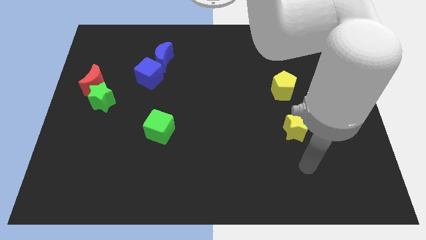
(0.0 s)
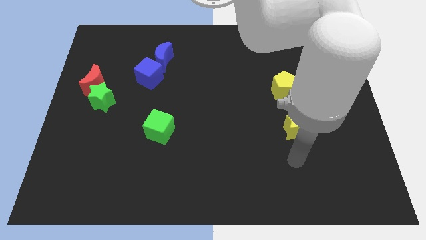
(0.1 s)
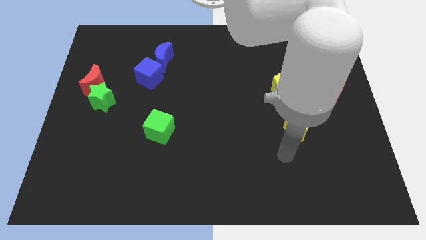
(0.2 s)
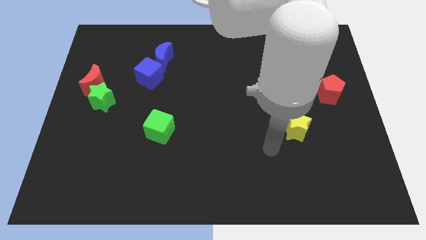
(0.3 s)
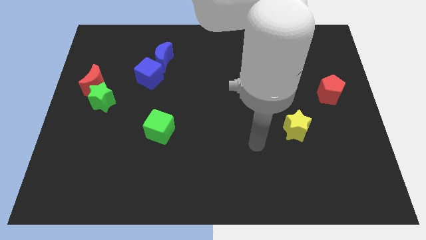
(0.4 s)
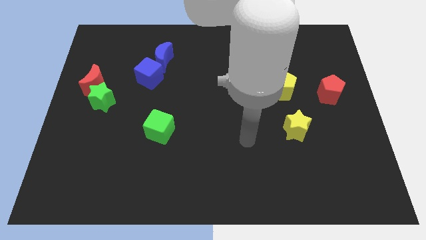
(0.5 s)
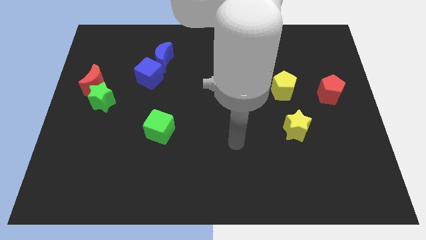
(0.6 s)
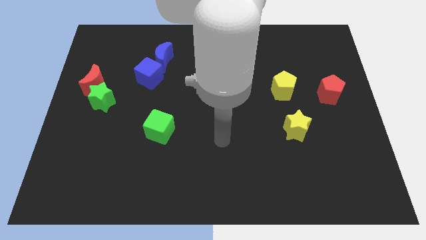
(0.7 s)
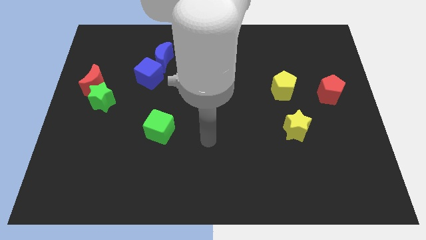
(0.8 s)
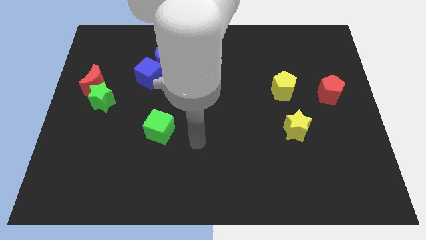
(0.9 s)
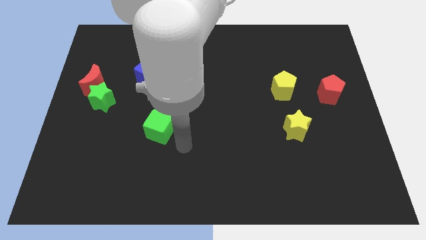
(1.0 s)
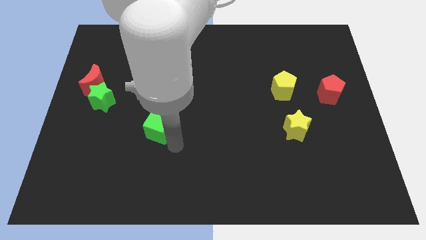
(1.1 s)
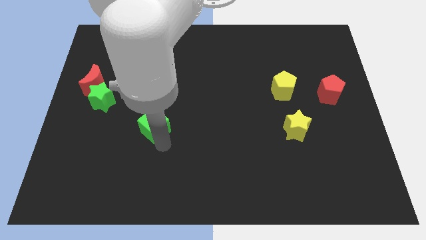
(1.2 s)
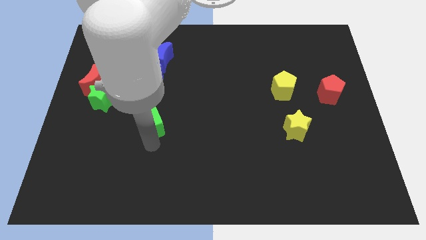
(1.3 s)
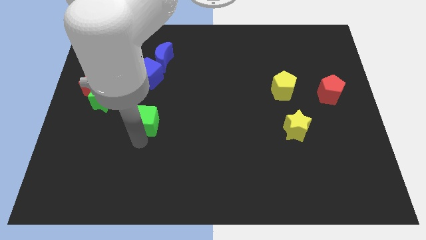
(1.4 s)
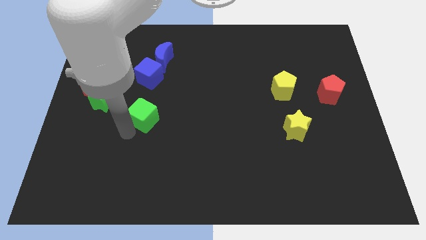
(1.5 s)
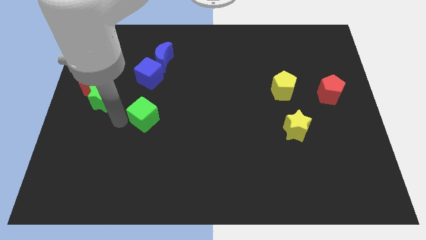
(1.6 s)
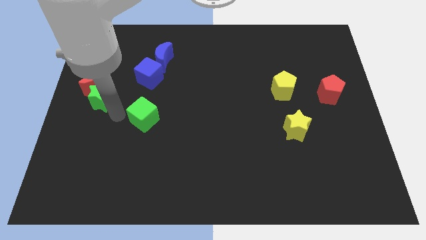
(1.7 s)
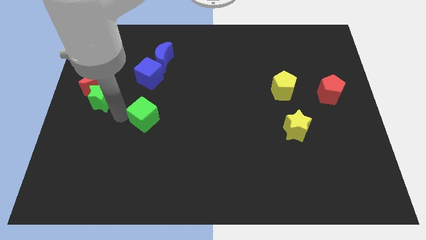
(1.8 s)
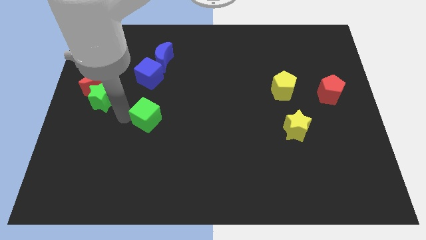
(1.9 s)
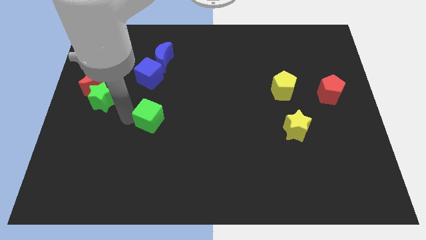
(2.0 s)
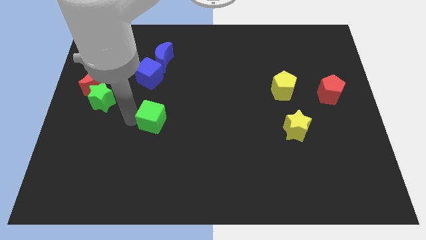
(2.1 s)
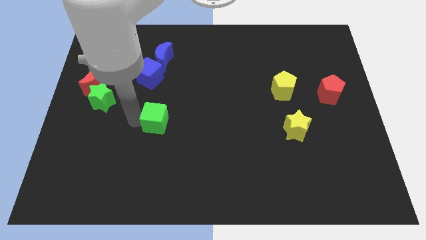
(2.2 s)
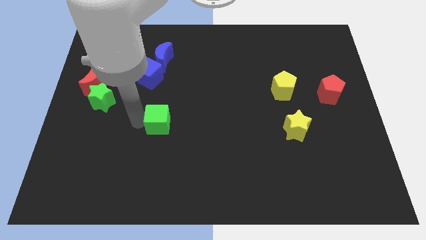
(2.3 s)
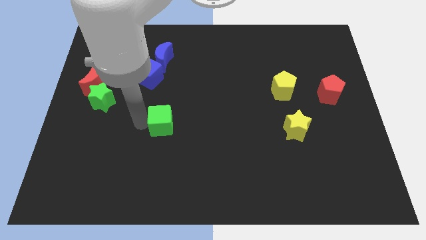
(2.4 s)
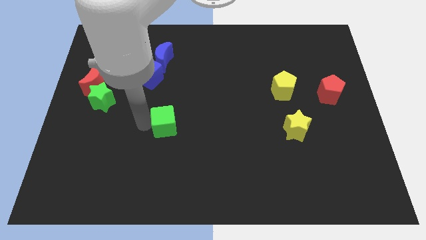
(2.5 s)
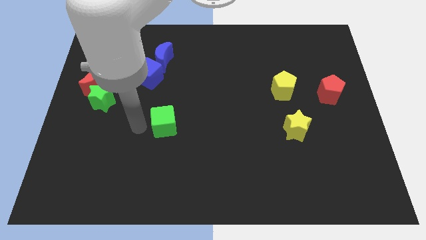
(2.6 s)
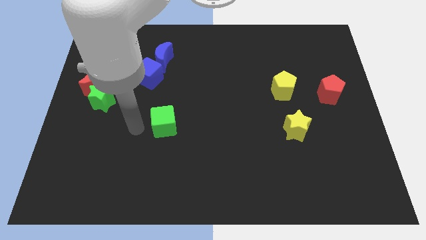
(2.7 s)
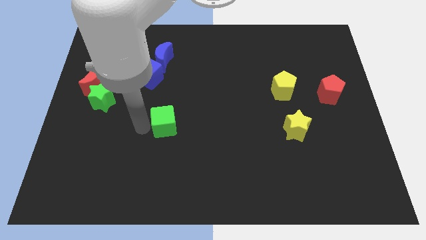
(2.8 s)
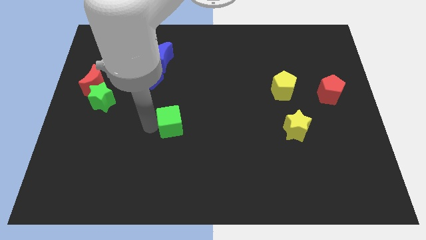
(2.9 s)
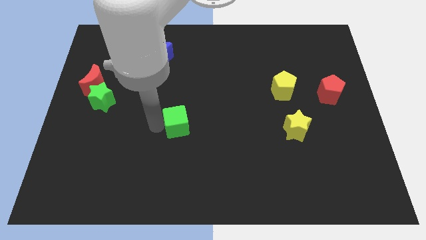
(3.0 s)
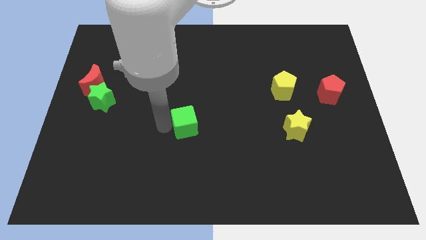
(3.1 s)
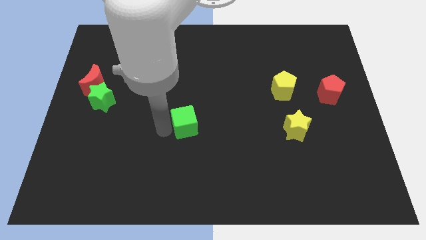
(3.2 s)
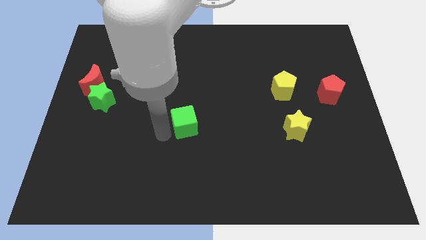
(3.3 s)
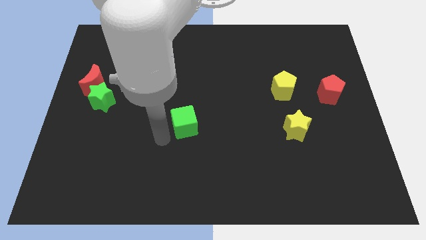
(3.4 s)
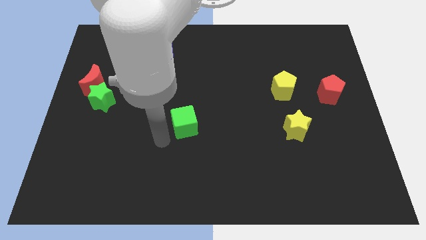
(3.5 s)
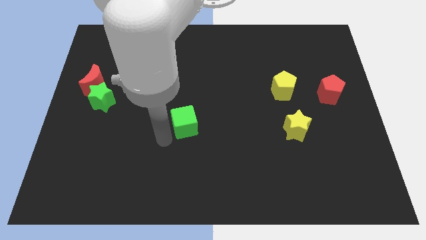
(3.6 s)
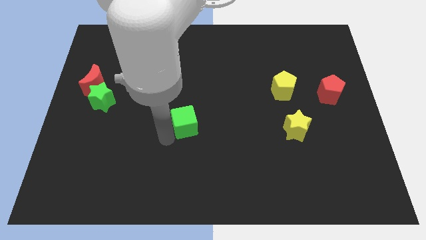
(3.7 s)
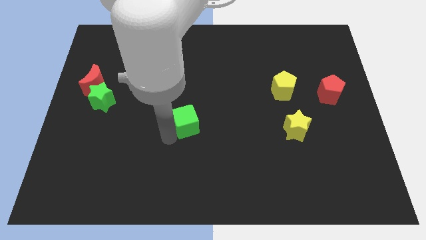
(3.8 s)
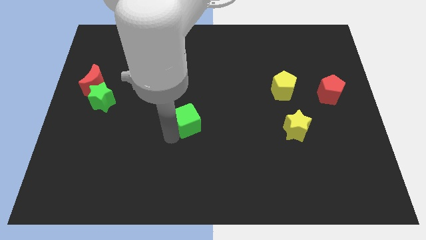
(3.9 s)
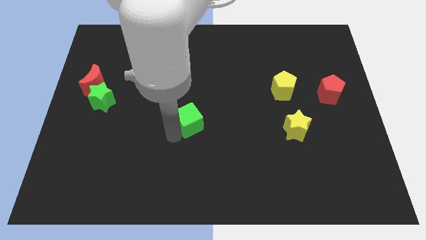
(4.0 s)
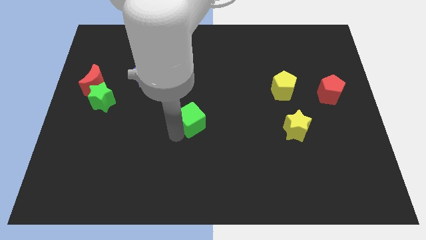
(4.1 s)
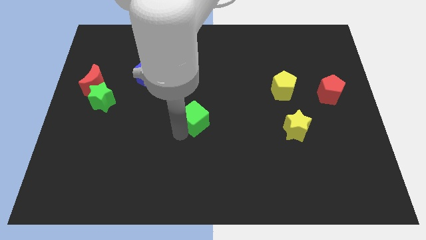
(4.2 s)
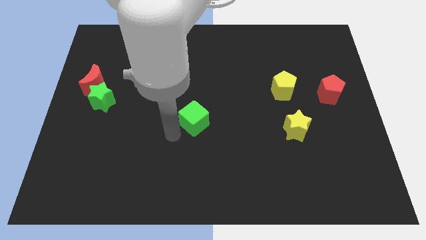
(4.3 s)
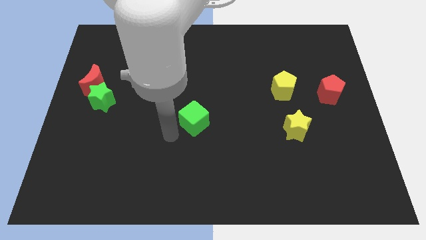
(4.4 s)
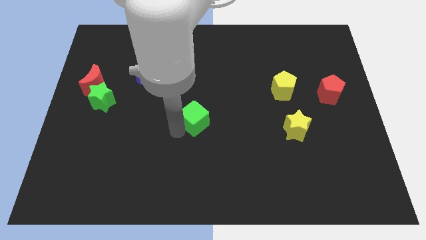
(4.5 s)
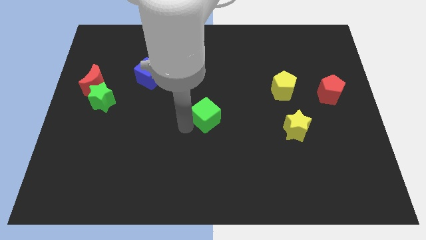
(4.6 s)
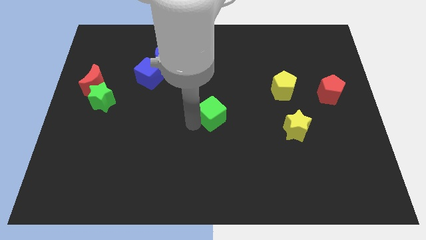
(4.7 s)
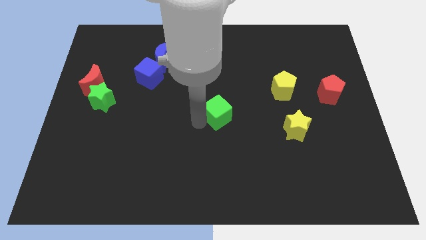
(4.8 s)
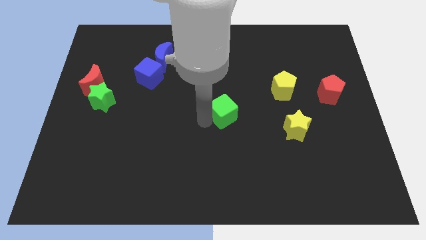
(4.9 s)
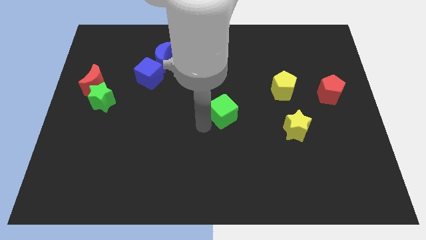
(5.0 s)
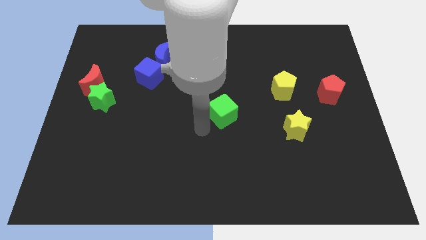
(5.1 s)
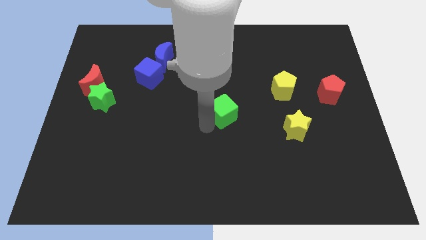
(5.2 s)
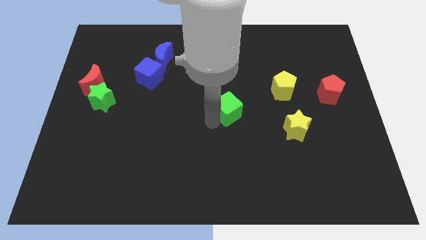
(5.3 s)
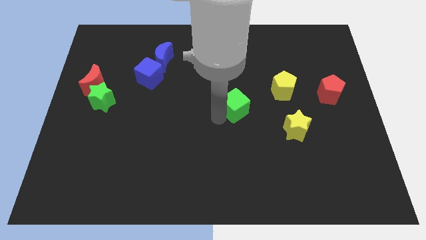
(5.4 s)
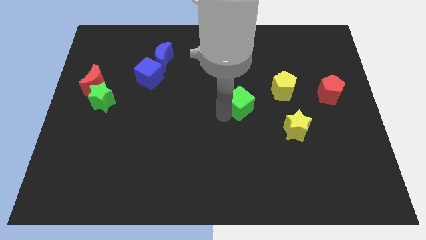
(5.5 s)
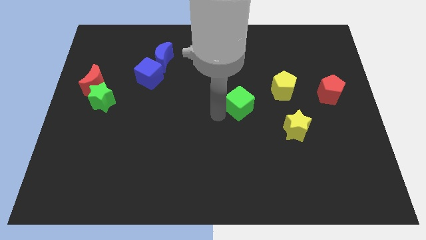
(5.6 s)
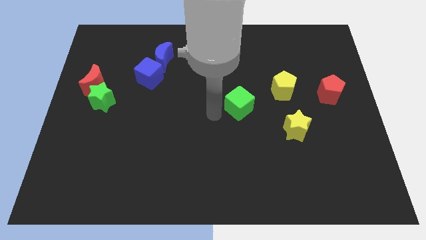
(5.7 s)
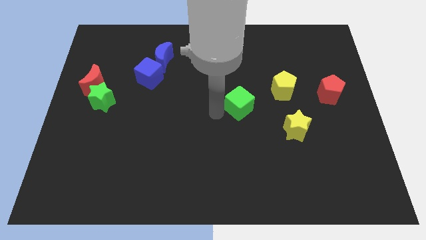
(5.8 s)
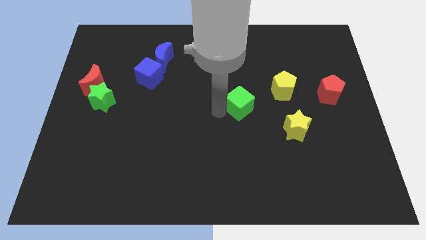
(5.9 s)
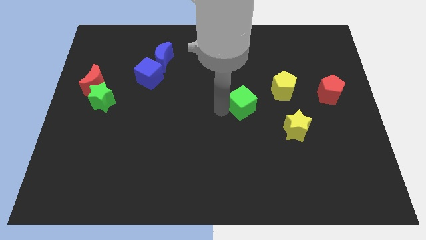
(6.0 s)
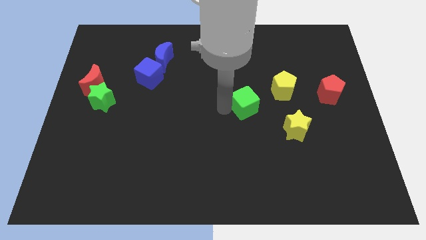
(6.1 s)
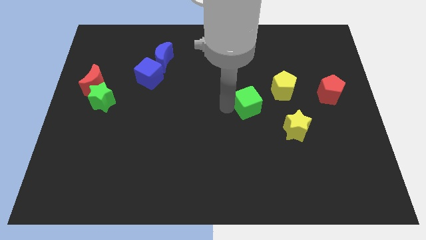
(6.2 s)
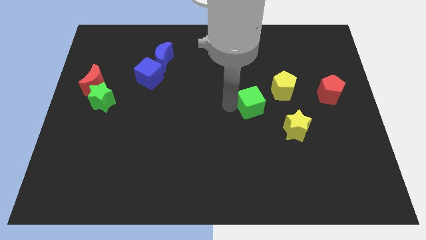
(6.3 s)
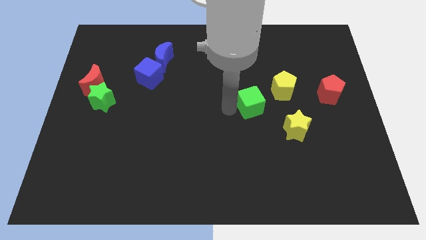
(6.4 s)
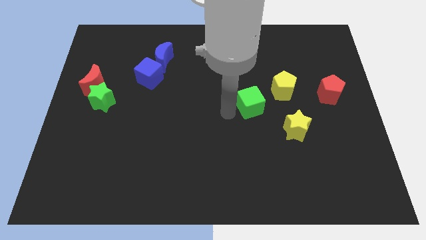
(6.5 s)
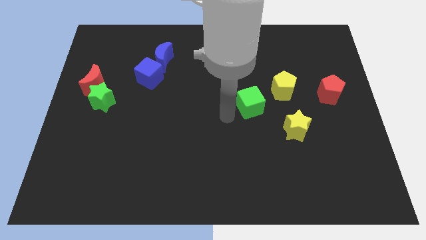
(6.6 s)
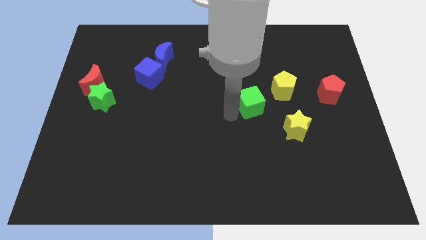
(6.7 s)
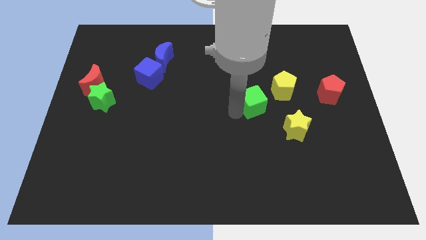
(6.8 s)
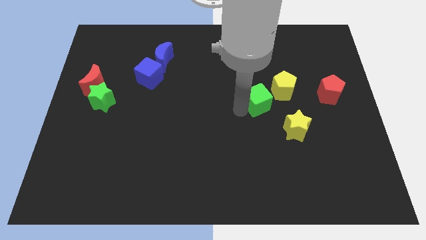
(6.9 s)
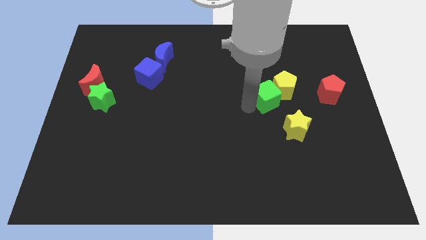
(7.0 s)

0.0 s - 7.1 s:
slide the green cube close to the yellow pentagon
